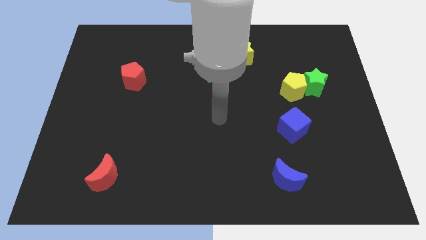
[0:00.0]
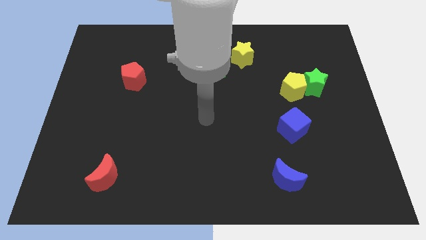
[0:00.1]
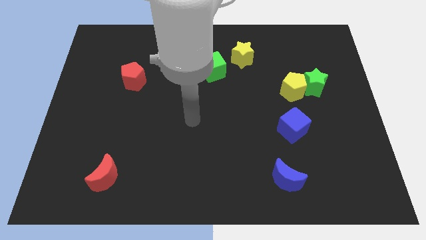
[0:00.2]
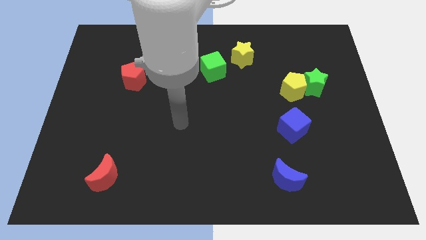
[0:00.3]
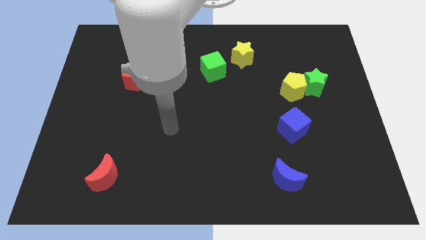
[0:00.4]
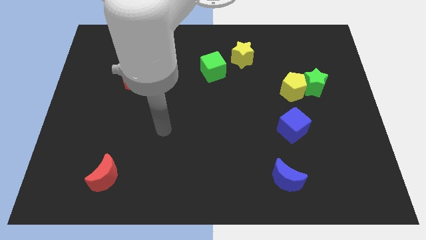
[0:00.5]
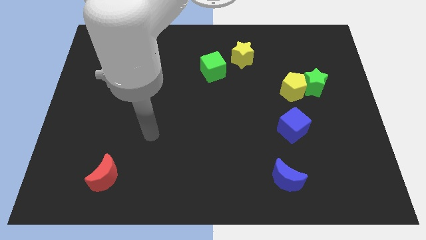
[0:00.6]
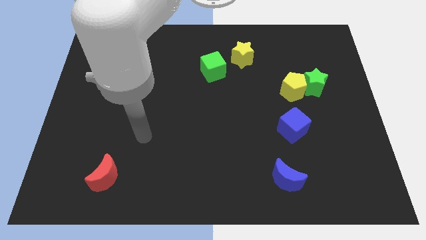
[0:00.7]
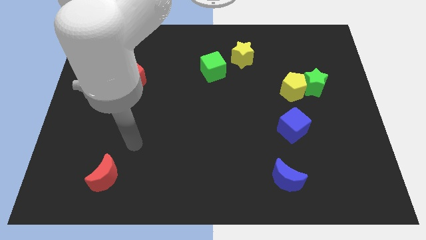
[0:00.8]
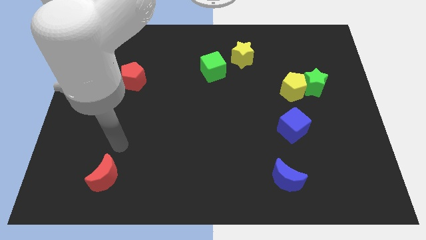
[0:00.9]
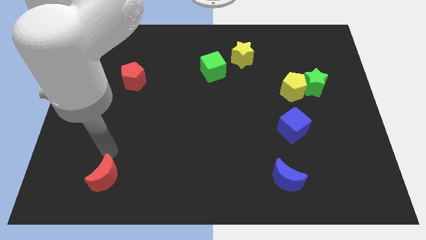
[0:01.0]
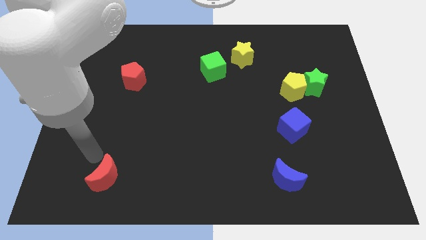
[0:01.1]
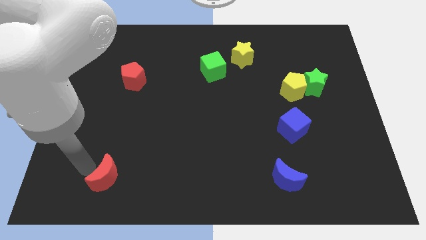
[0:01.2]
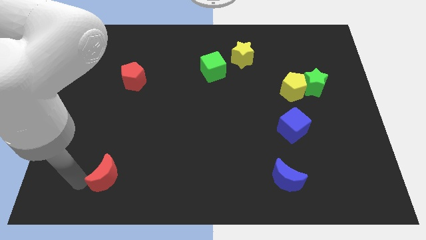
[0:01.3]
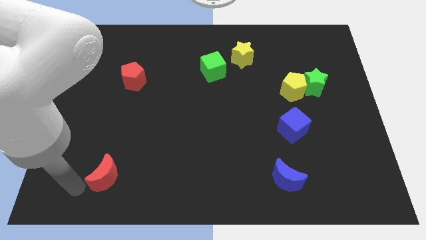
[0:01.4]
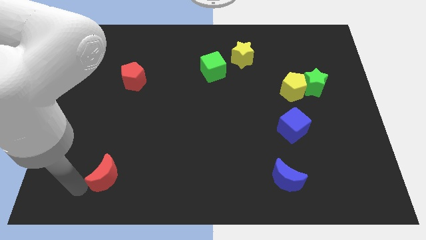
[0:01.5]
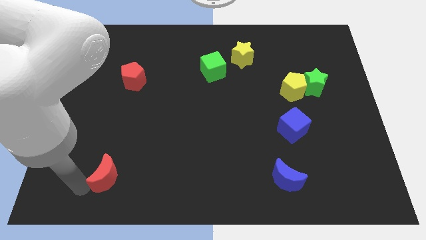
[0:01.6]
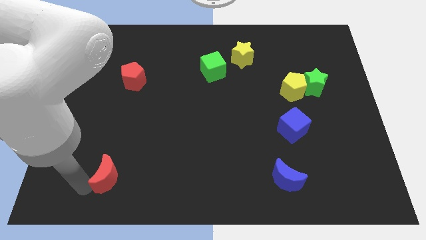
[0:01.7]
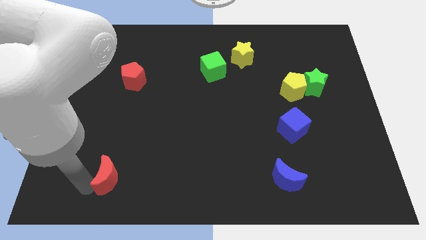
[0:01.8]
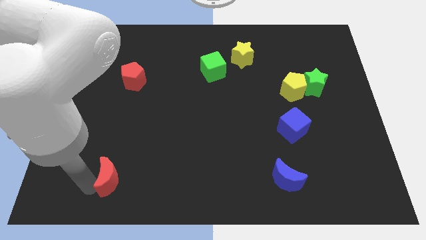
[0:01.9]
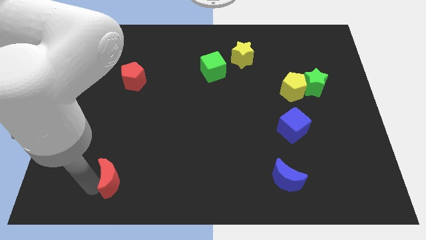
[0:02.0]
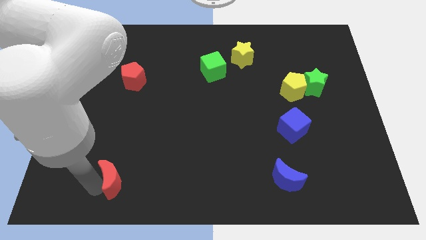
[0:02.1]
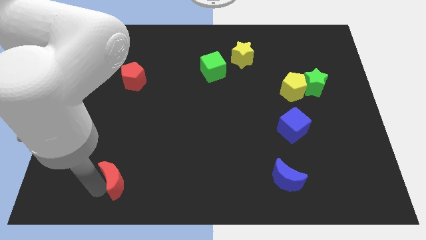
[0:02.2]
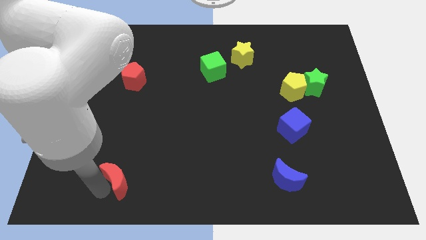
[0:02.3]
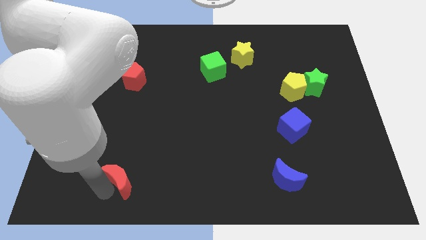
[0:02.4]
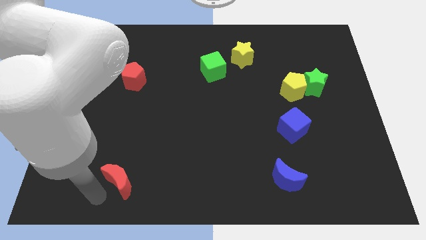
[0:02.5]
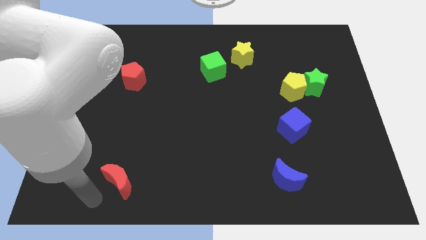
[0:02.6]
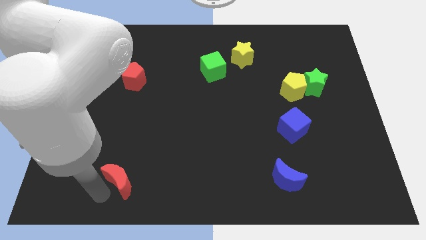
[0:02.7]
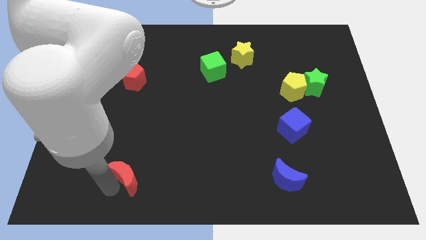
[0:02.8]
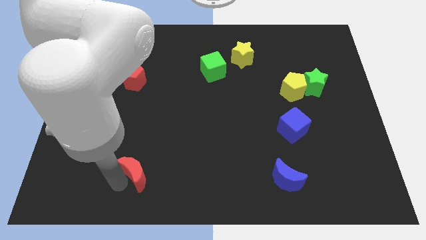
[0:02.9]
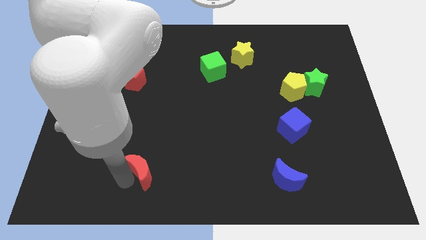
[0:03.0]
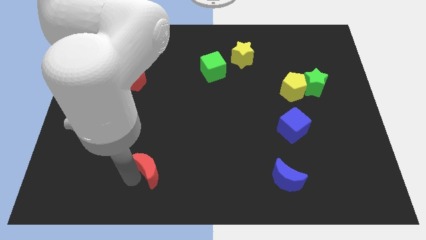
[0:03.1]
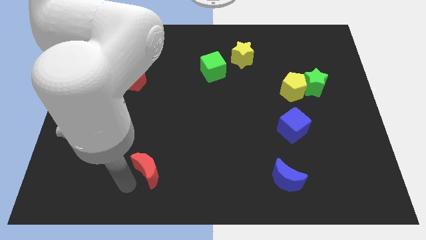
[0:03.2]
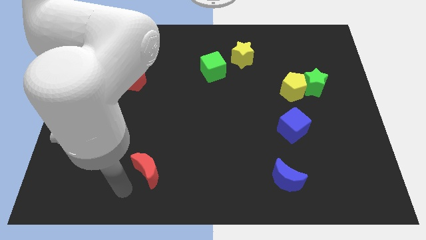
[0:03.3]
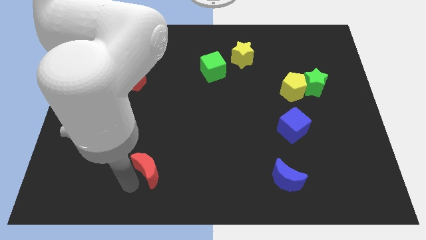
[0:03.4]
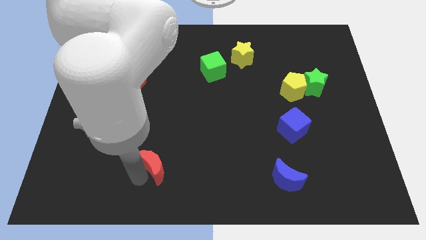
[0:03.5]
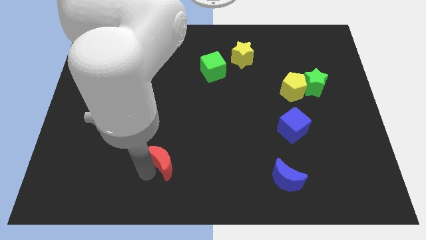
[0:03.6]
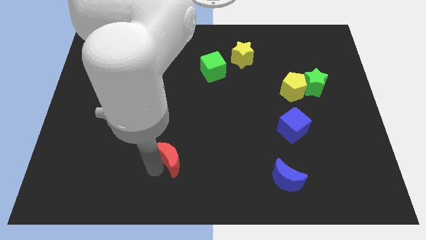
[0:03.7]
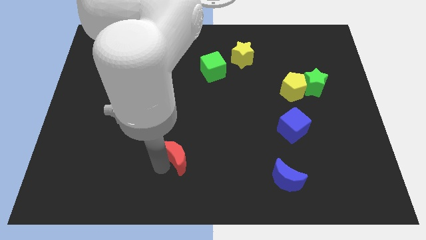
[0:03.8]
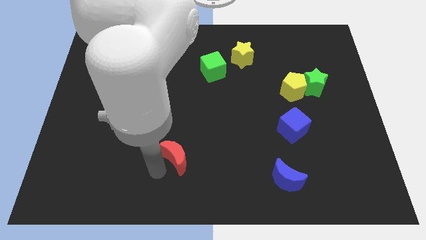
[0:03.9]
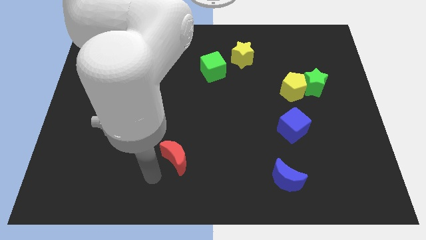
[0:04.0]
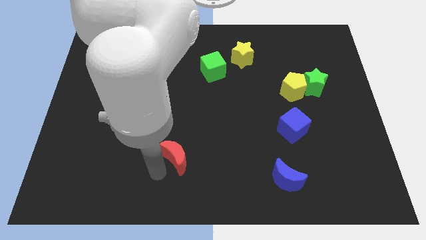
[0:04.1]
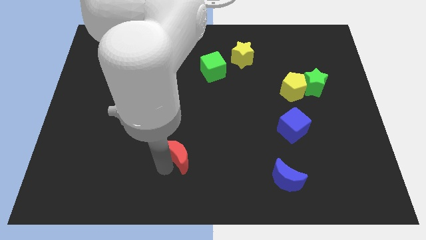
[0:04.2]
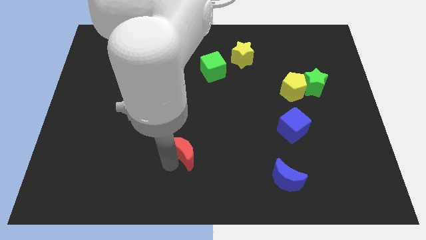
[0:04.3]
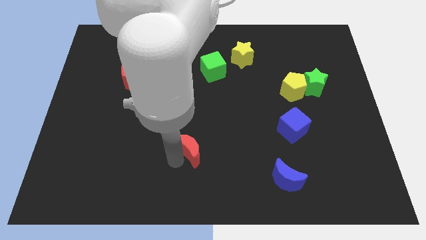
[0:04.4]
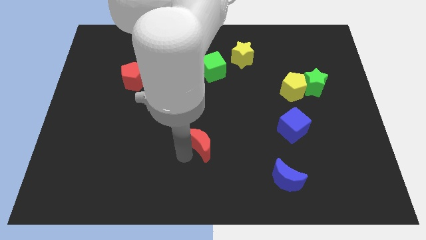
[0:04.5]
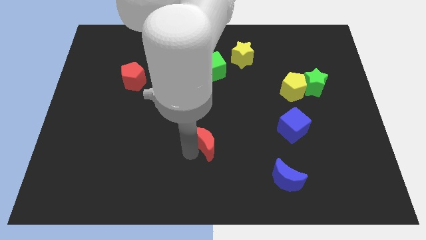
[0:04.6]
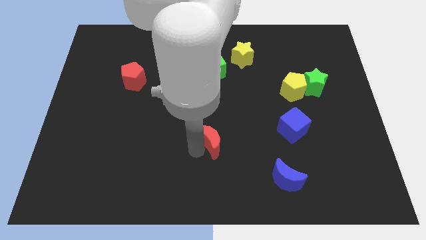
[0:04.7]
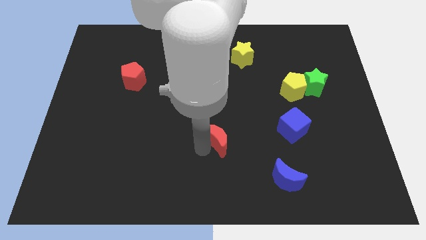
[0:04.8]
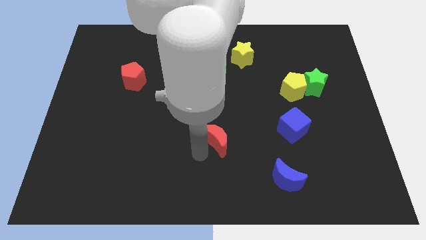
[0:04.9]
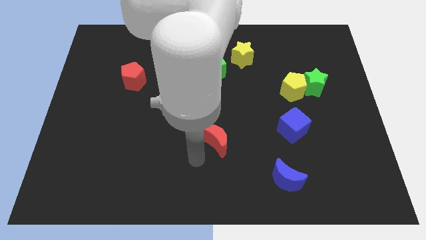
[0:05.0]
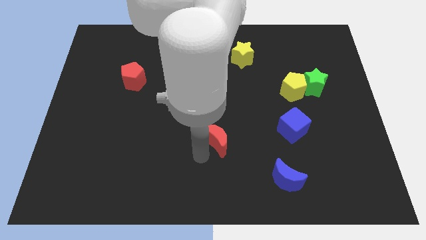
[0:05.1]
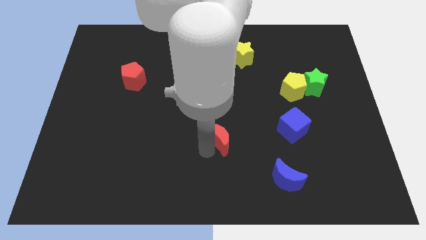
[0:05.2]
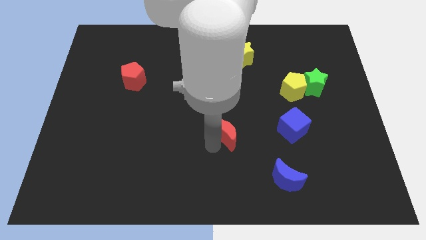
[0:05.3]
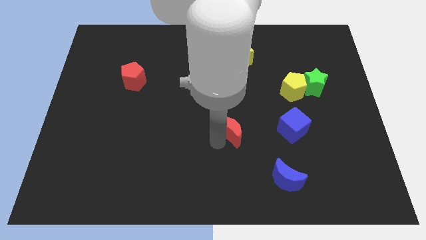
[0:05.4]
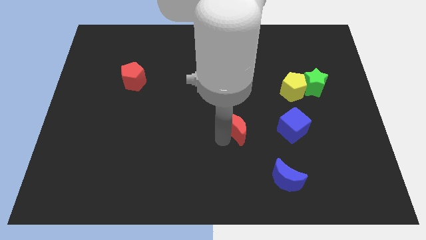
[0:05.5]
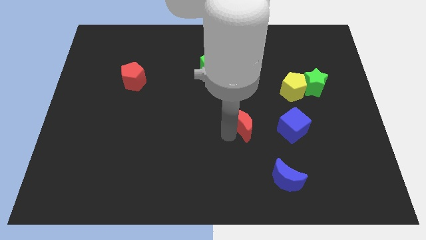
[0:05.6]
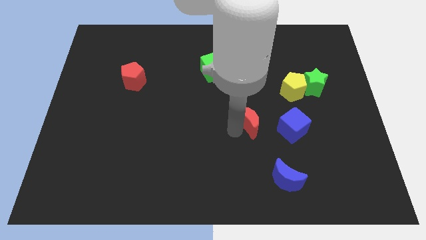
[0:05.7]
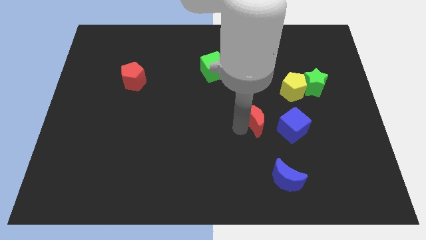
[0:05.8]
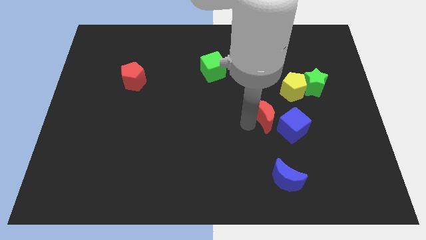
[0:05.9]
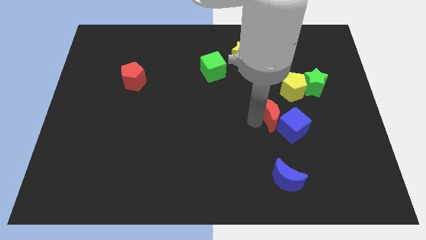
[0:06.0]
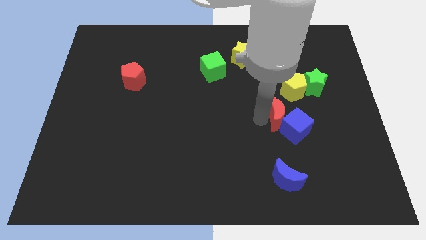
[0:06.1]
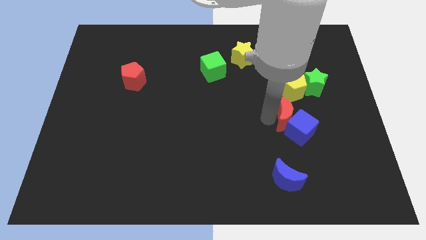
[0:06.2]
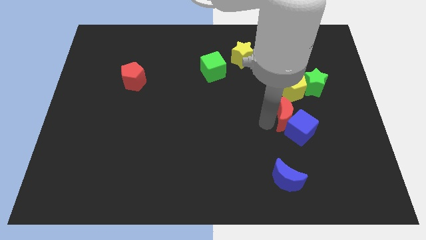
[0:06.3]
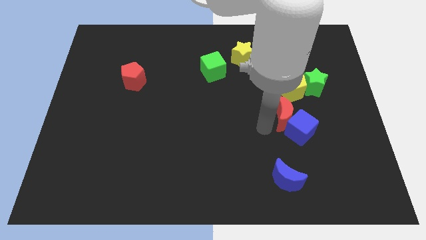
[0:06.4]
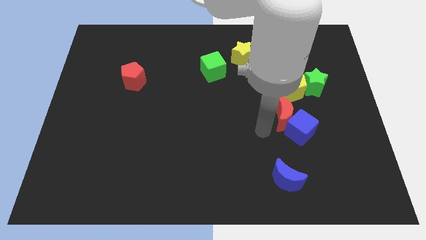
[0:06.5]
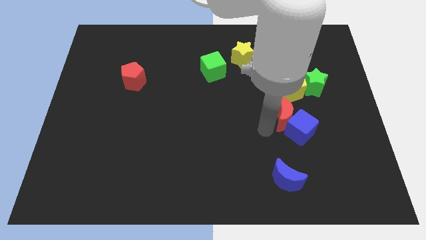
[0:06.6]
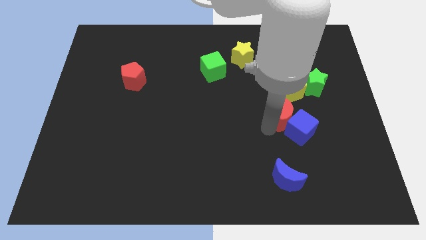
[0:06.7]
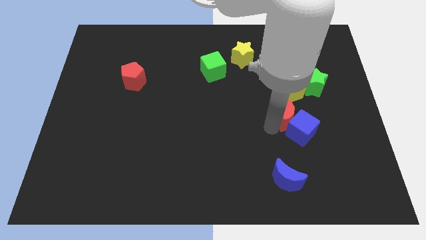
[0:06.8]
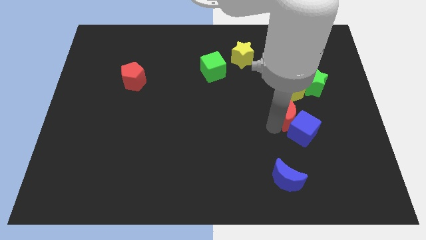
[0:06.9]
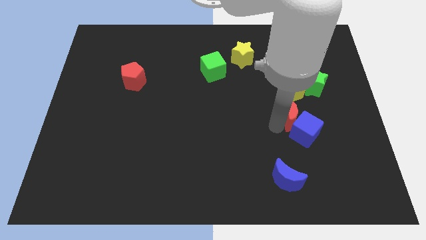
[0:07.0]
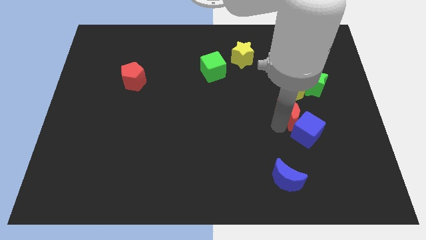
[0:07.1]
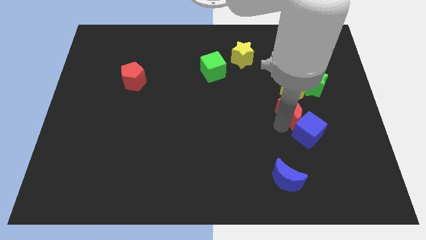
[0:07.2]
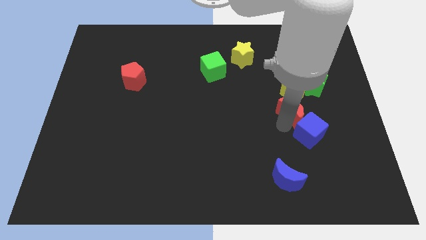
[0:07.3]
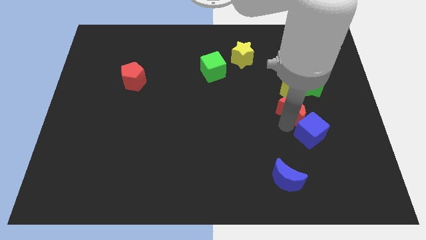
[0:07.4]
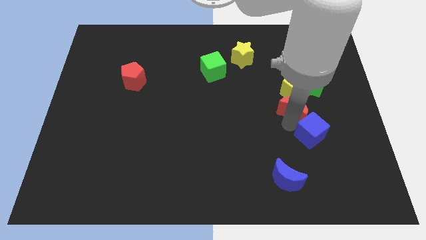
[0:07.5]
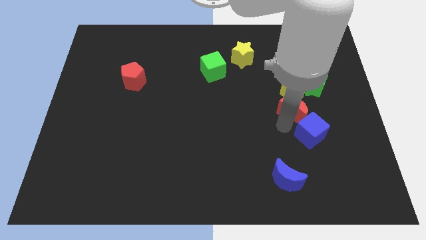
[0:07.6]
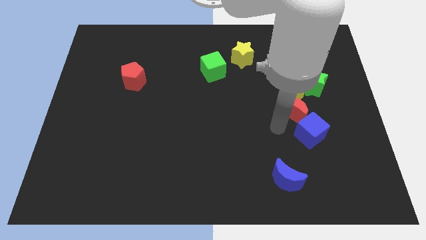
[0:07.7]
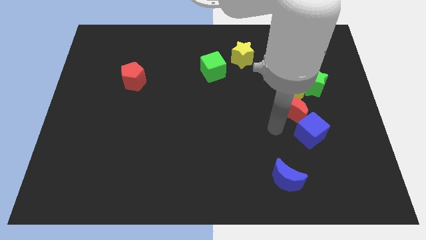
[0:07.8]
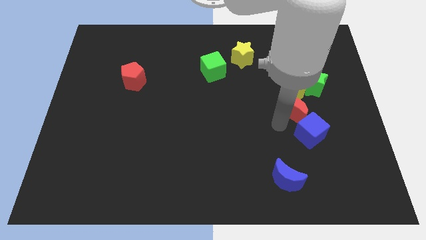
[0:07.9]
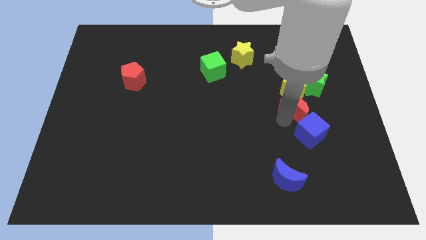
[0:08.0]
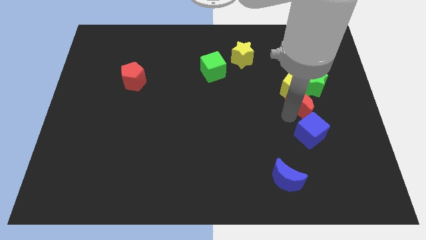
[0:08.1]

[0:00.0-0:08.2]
move the red moon close to the yellow pentagon
